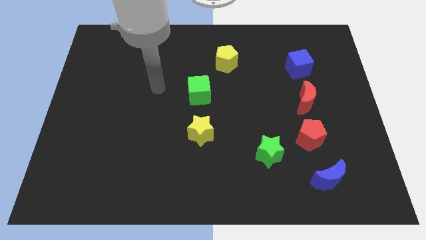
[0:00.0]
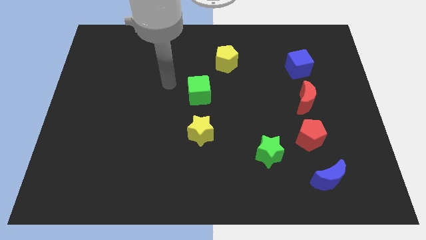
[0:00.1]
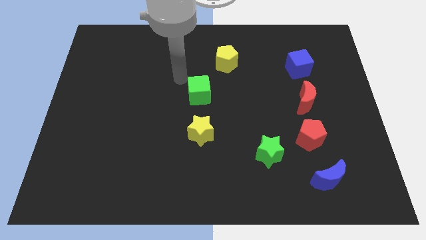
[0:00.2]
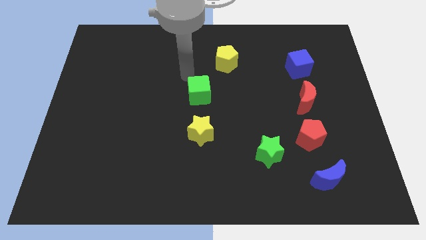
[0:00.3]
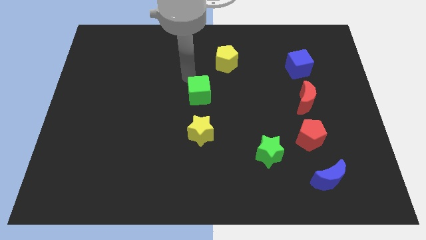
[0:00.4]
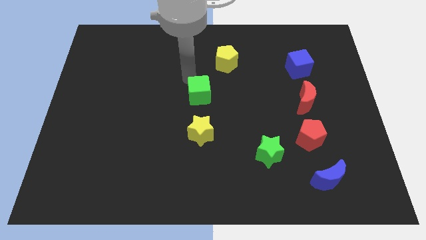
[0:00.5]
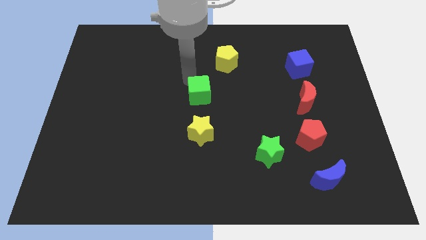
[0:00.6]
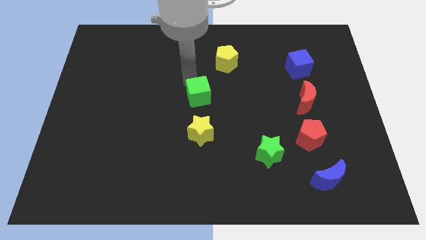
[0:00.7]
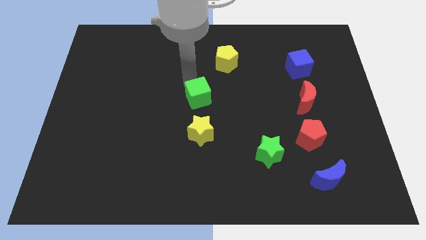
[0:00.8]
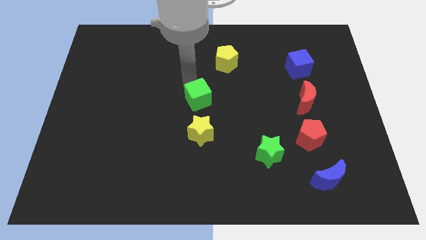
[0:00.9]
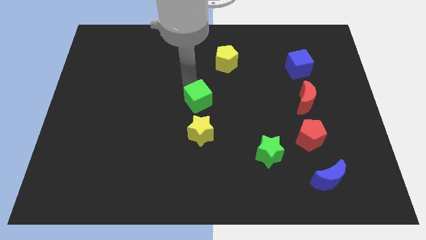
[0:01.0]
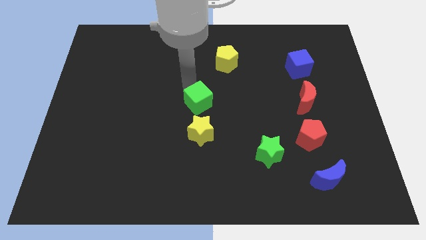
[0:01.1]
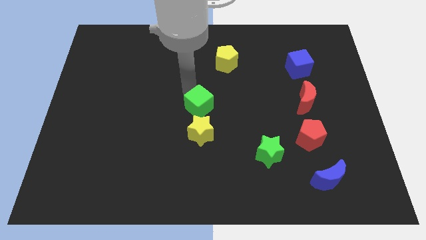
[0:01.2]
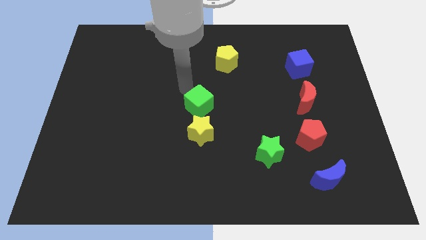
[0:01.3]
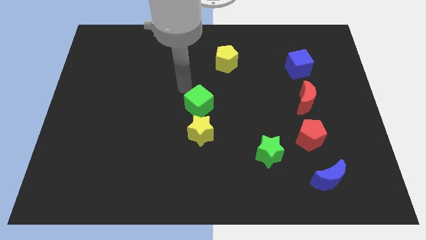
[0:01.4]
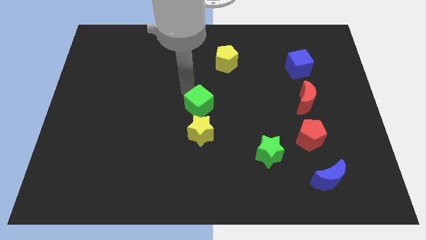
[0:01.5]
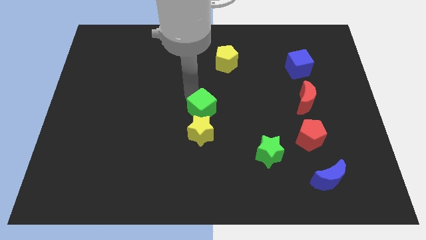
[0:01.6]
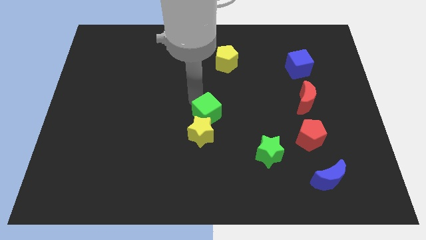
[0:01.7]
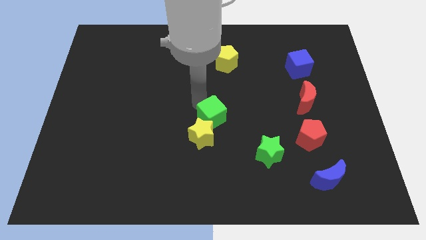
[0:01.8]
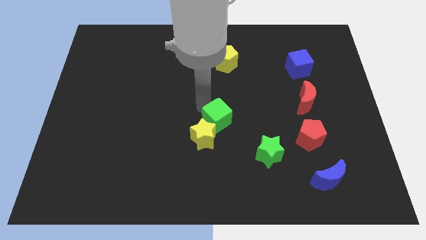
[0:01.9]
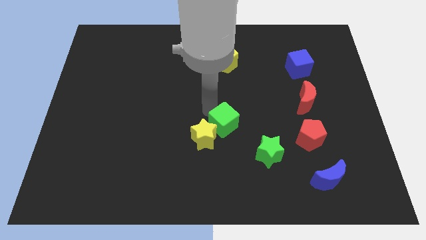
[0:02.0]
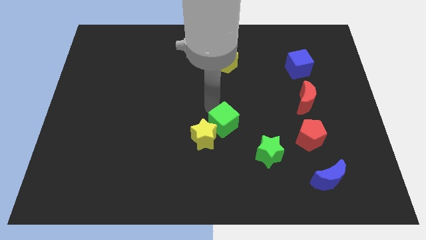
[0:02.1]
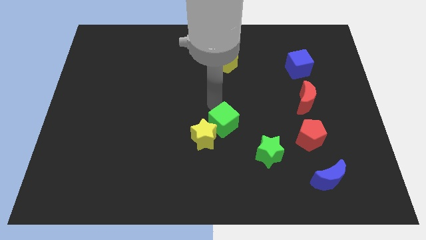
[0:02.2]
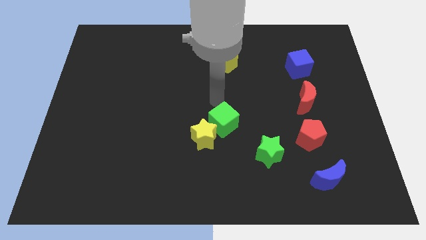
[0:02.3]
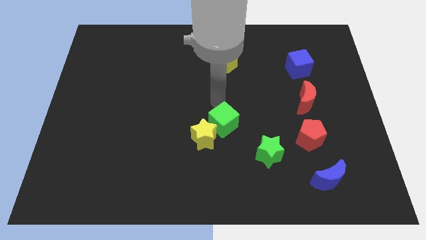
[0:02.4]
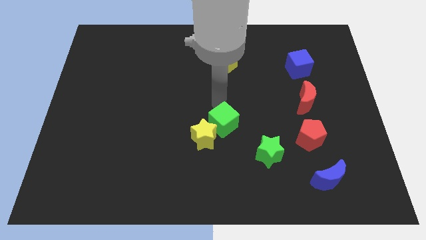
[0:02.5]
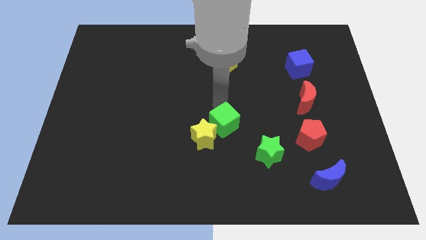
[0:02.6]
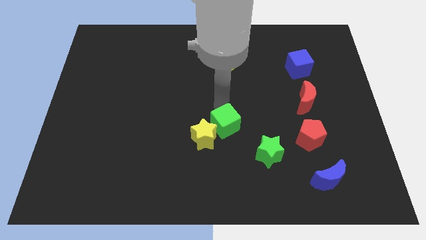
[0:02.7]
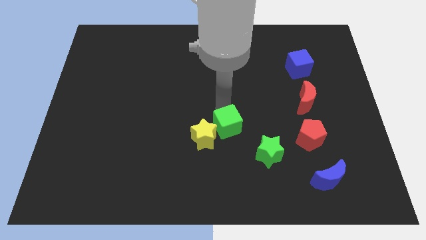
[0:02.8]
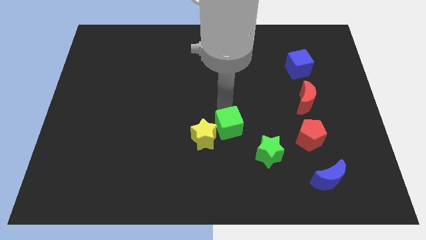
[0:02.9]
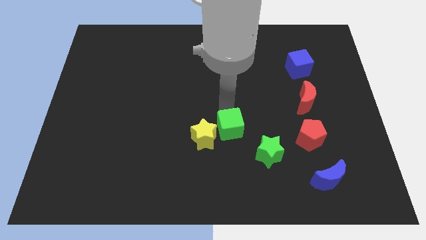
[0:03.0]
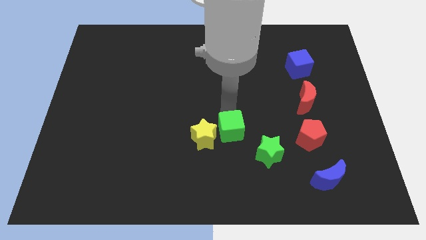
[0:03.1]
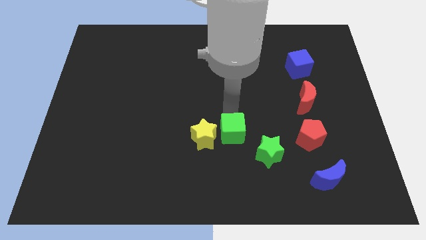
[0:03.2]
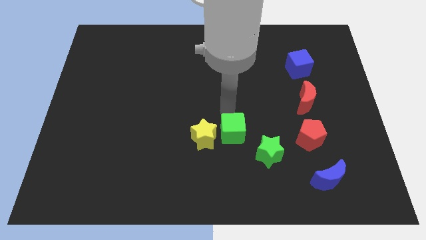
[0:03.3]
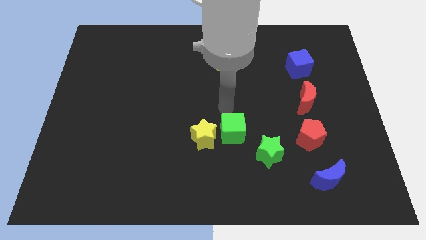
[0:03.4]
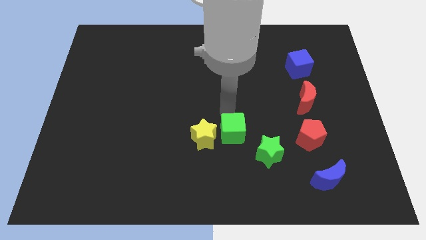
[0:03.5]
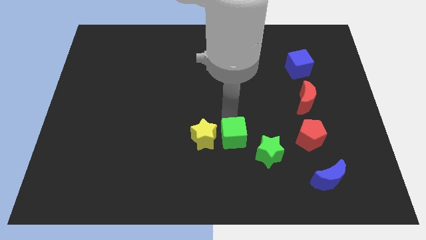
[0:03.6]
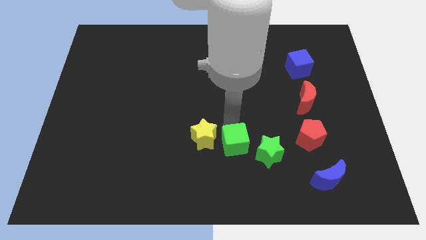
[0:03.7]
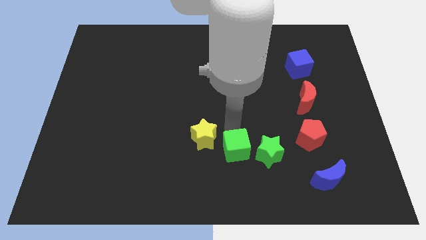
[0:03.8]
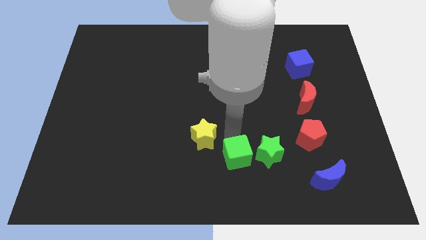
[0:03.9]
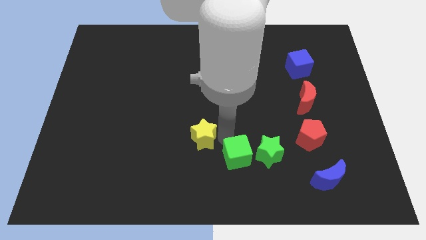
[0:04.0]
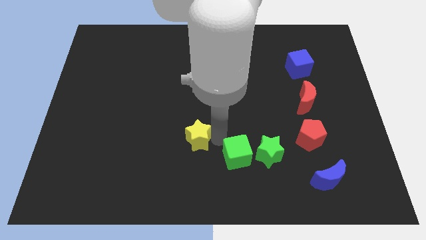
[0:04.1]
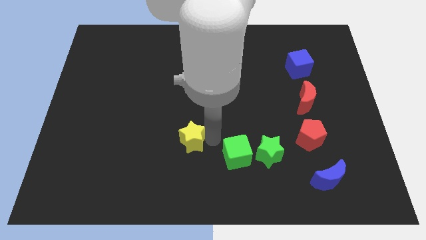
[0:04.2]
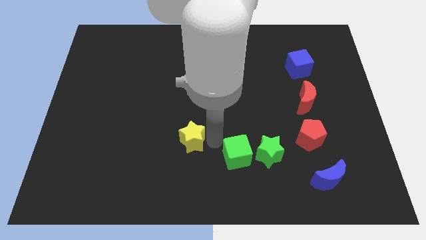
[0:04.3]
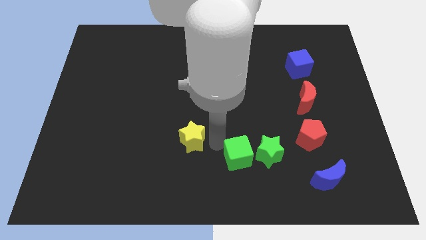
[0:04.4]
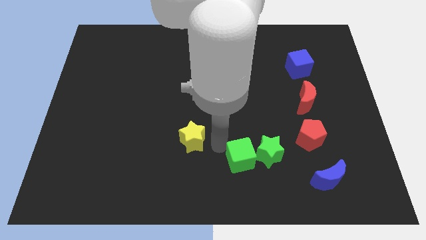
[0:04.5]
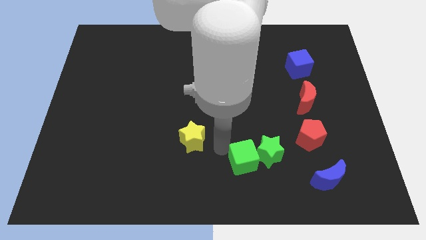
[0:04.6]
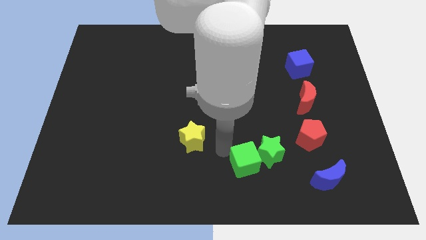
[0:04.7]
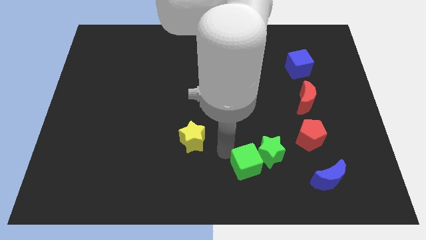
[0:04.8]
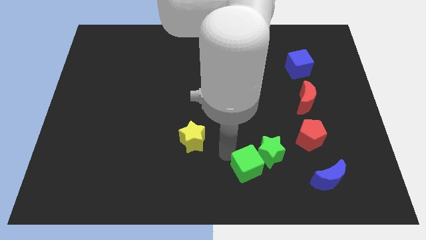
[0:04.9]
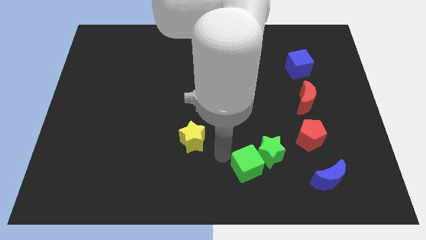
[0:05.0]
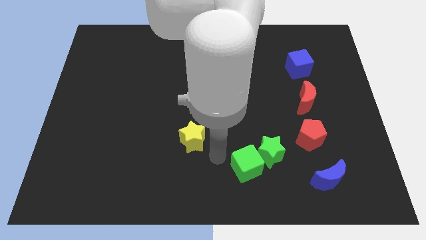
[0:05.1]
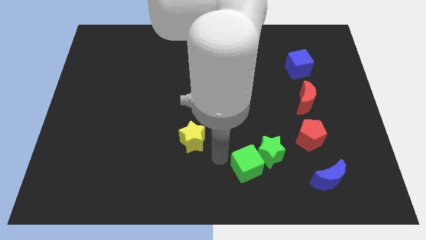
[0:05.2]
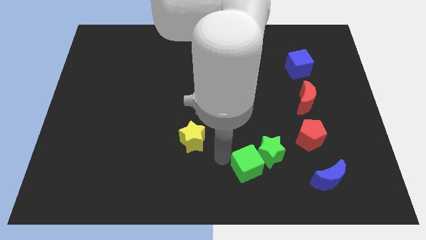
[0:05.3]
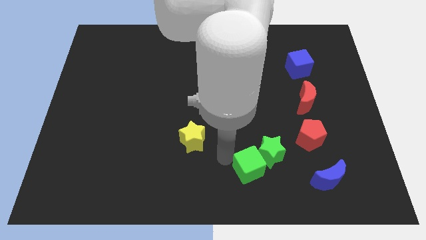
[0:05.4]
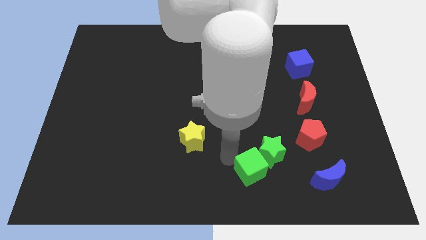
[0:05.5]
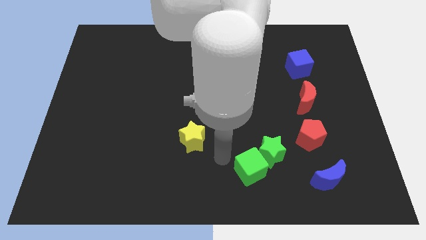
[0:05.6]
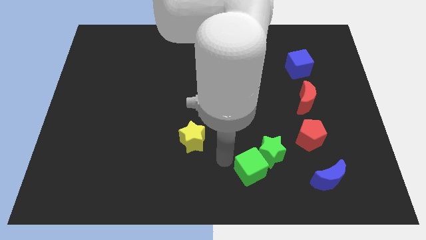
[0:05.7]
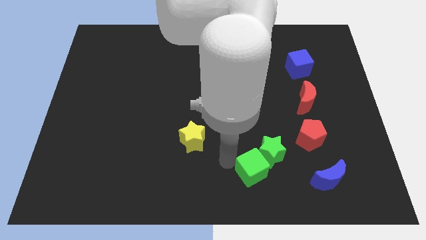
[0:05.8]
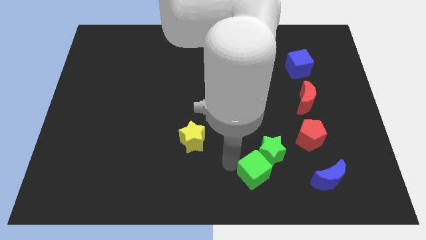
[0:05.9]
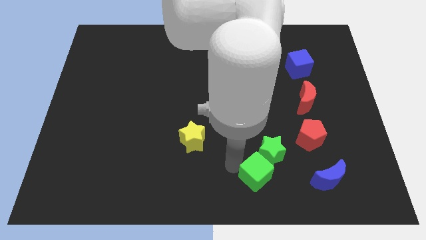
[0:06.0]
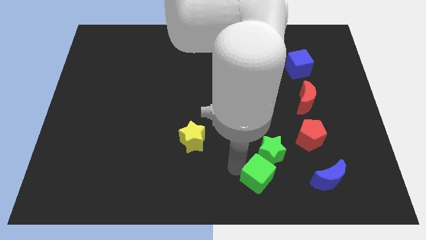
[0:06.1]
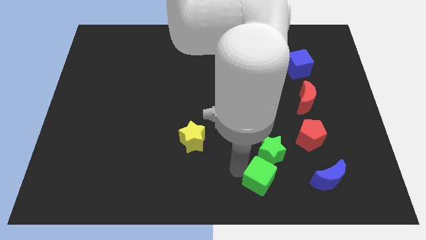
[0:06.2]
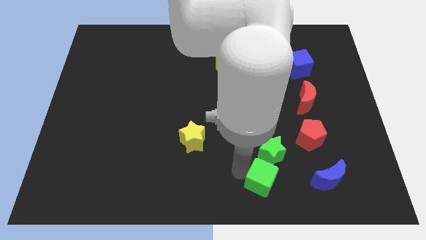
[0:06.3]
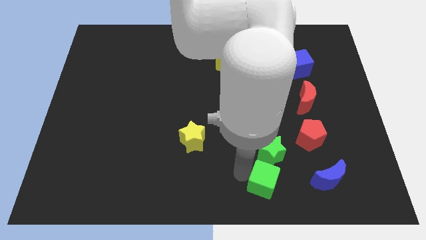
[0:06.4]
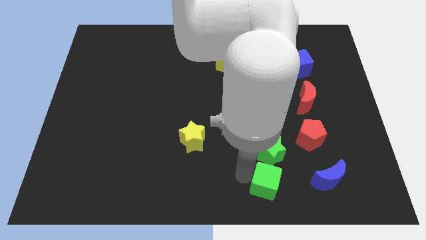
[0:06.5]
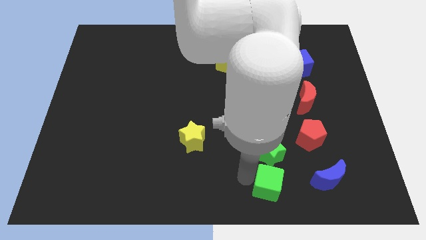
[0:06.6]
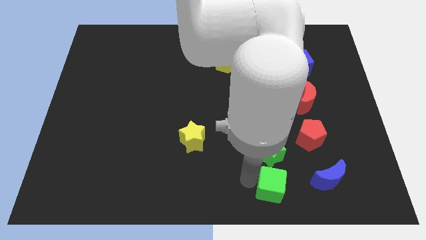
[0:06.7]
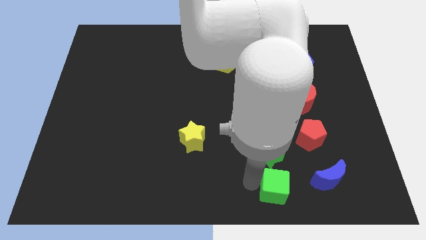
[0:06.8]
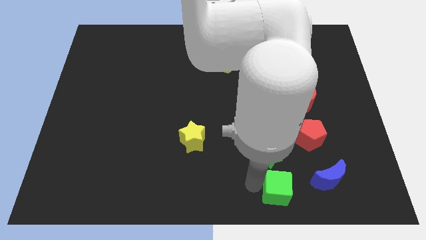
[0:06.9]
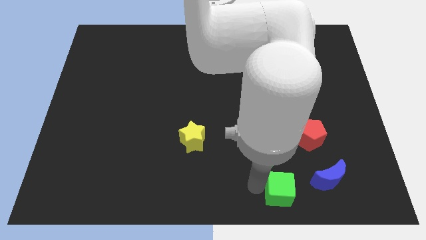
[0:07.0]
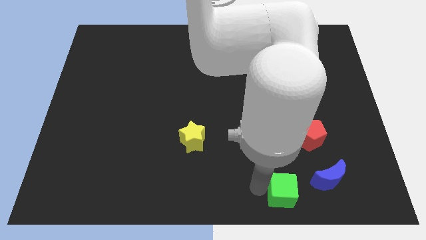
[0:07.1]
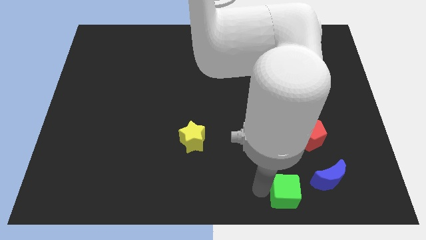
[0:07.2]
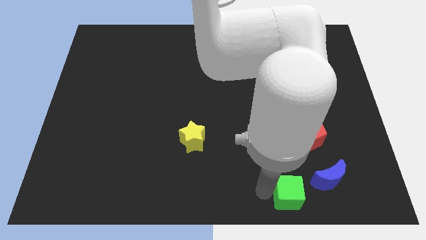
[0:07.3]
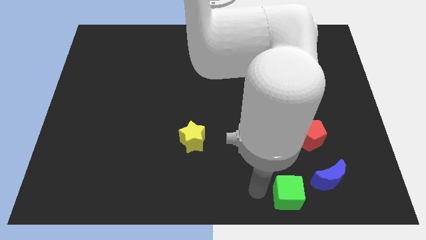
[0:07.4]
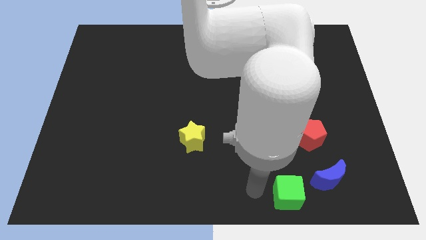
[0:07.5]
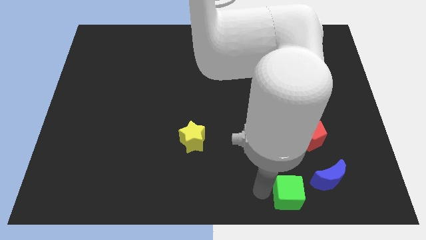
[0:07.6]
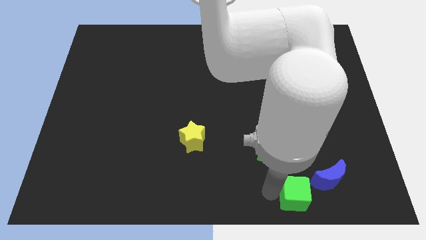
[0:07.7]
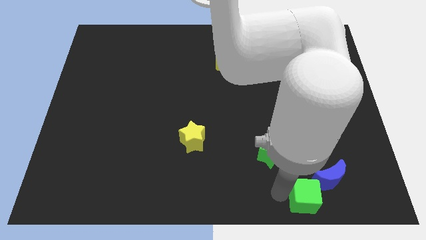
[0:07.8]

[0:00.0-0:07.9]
move the green cube below the red pentagon
